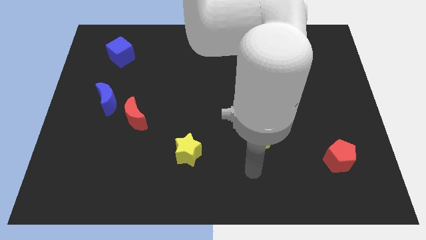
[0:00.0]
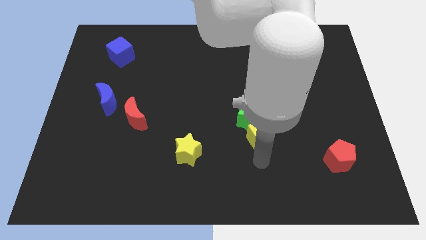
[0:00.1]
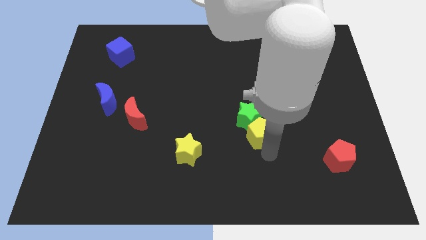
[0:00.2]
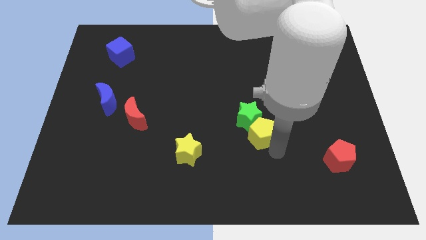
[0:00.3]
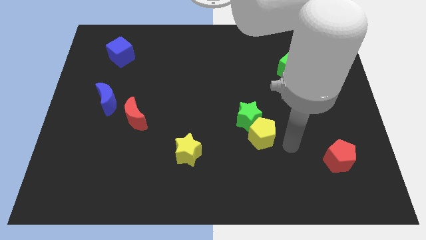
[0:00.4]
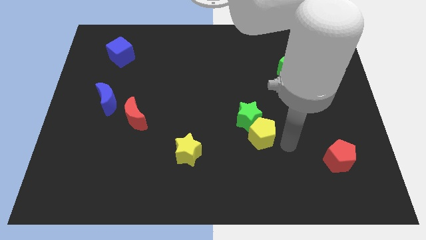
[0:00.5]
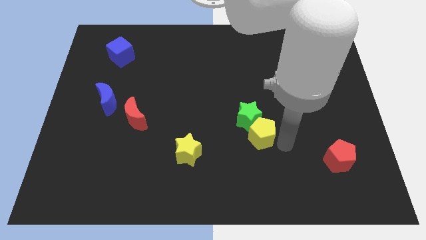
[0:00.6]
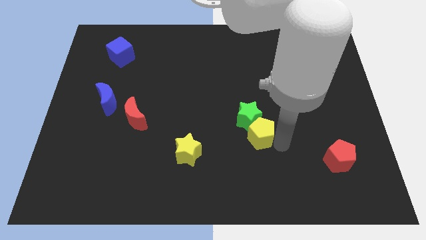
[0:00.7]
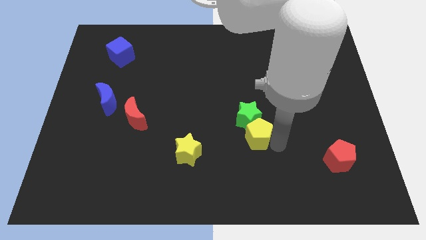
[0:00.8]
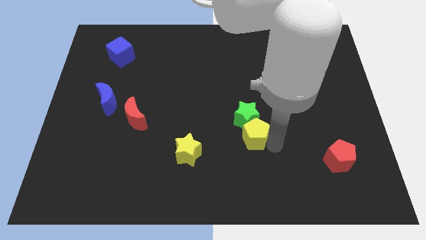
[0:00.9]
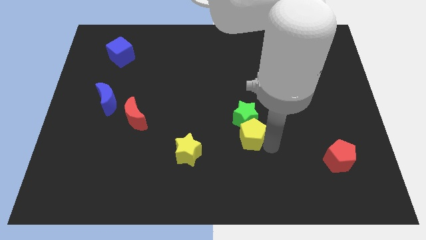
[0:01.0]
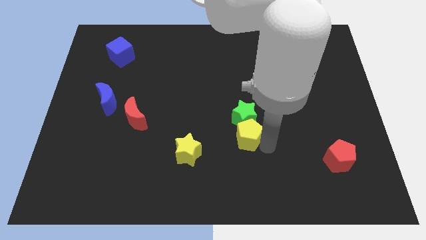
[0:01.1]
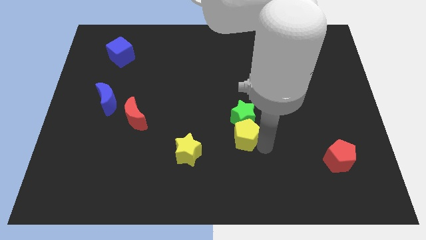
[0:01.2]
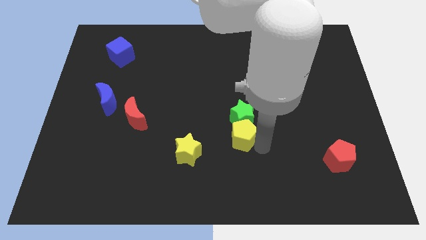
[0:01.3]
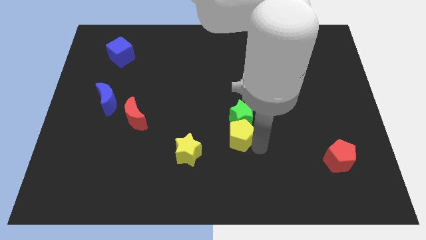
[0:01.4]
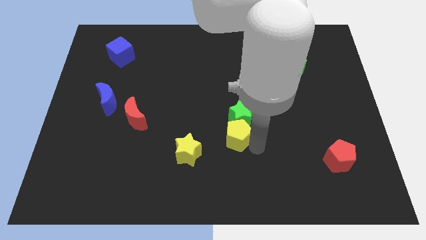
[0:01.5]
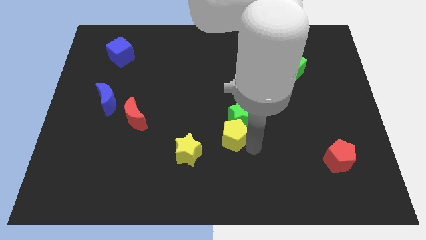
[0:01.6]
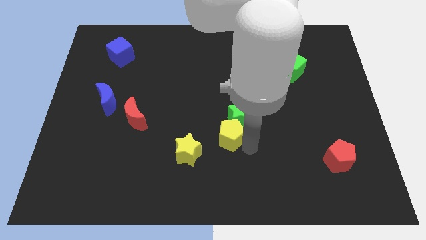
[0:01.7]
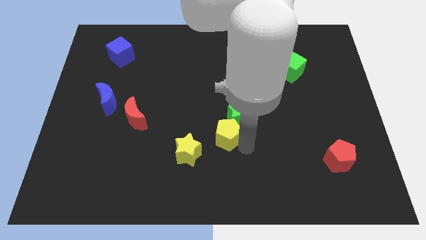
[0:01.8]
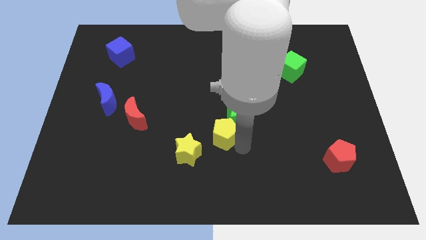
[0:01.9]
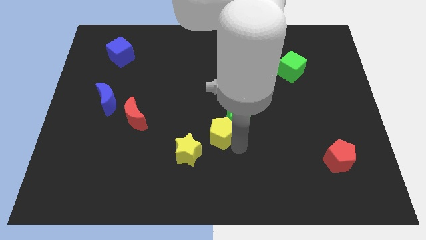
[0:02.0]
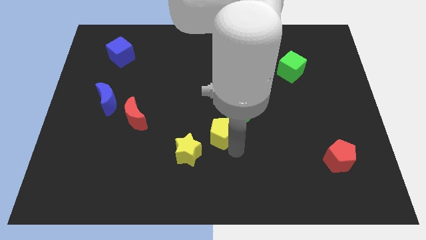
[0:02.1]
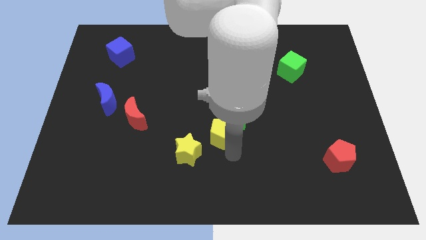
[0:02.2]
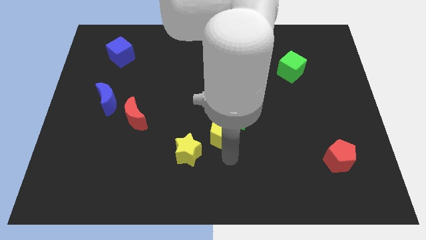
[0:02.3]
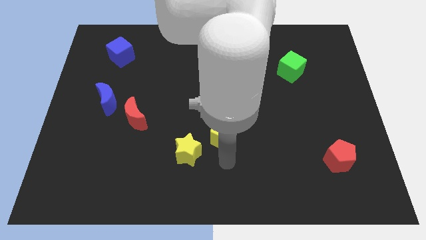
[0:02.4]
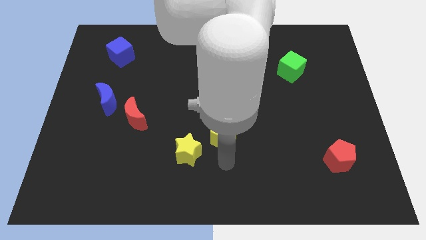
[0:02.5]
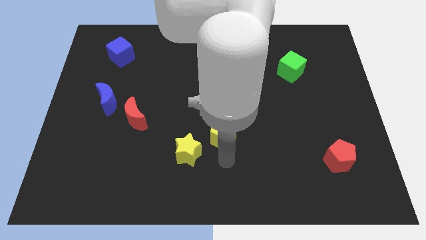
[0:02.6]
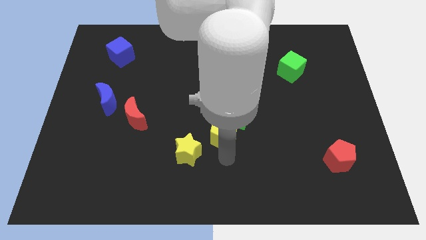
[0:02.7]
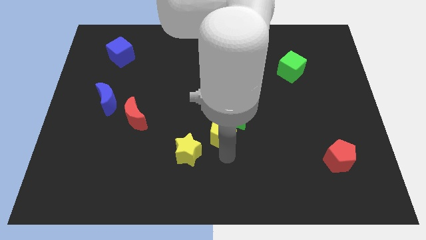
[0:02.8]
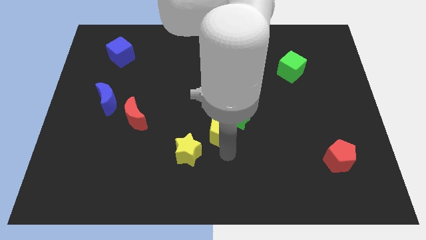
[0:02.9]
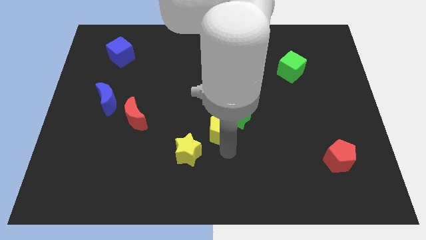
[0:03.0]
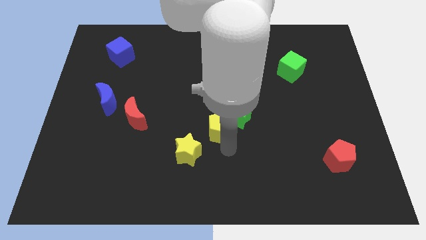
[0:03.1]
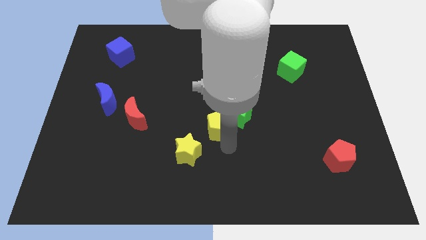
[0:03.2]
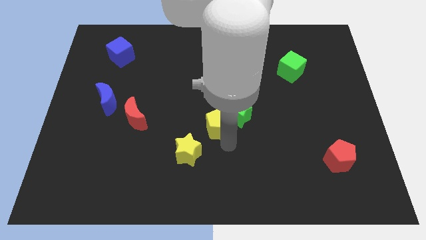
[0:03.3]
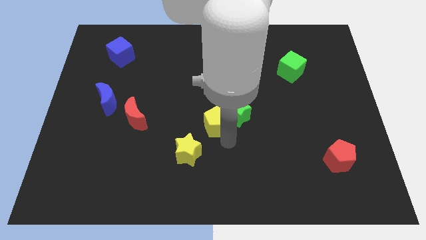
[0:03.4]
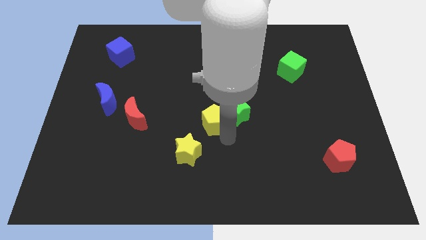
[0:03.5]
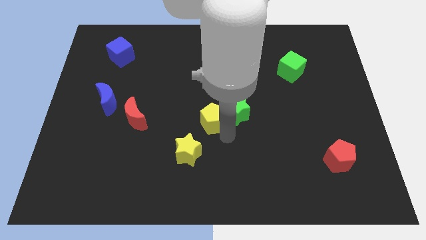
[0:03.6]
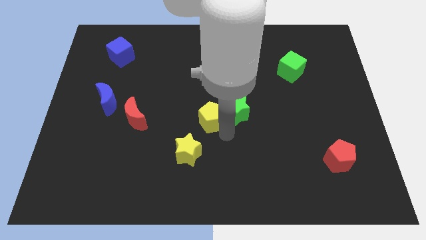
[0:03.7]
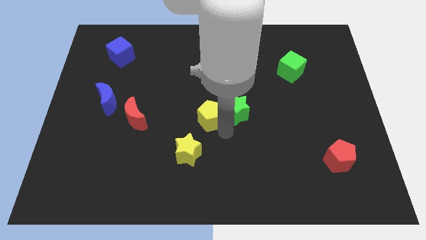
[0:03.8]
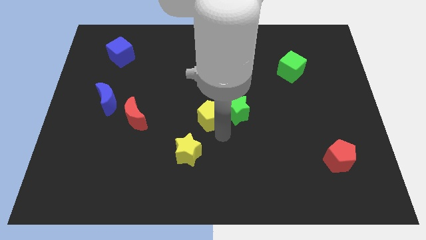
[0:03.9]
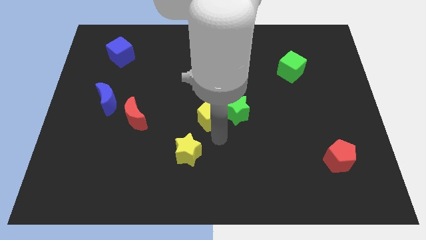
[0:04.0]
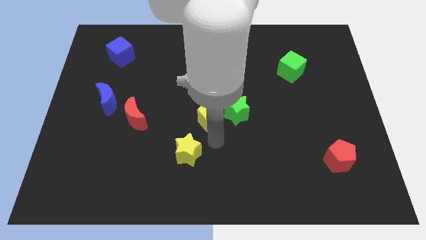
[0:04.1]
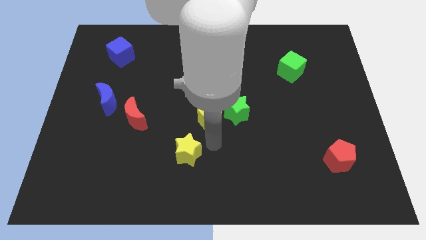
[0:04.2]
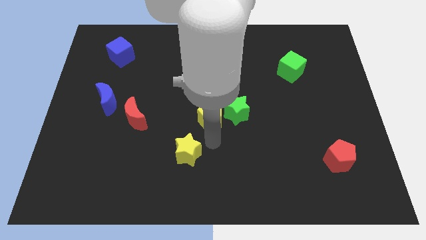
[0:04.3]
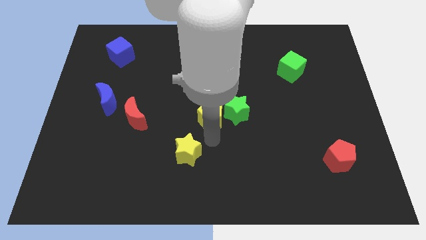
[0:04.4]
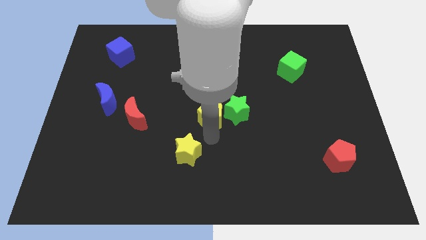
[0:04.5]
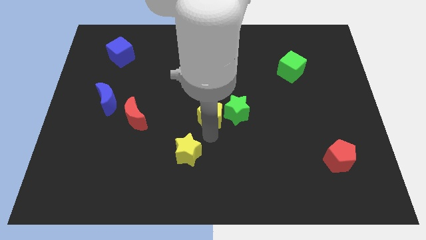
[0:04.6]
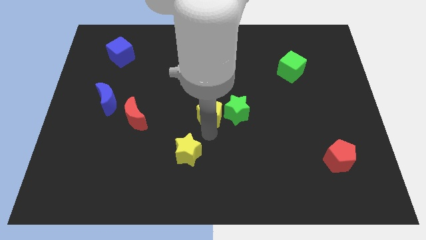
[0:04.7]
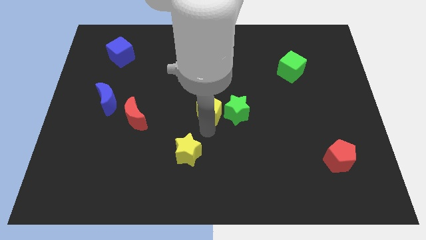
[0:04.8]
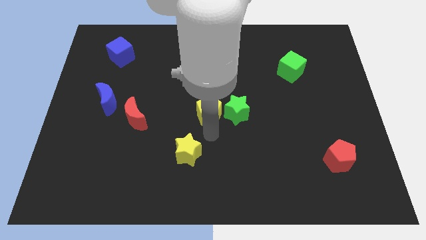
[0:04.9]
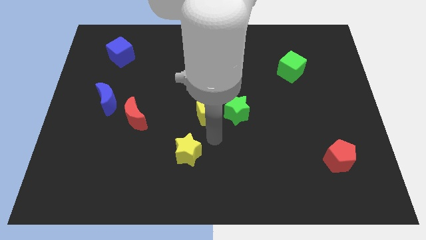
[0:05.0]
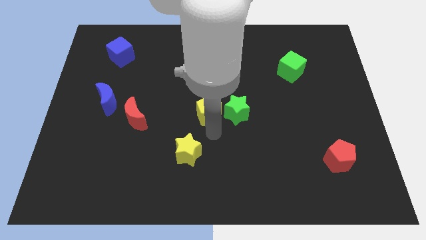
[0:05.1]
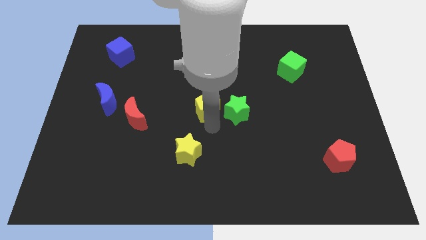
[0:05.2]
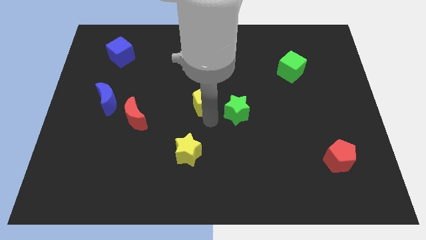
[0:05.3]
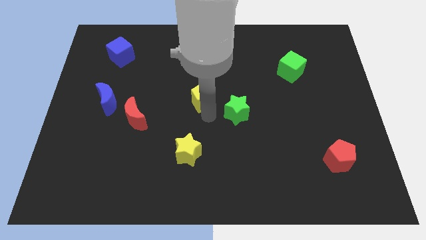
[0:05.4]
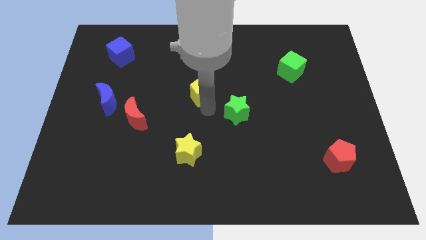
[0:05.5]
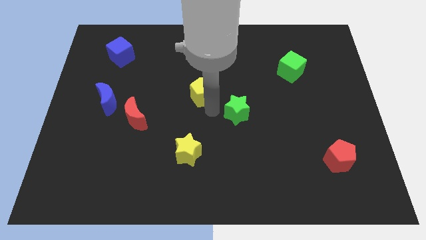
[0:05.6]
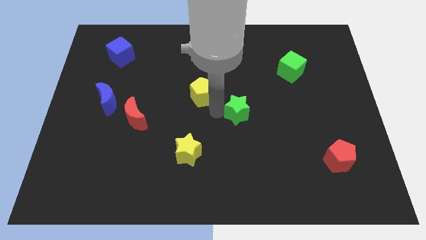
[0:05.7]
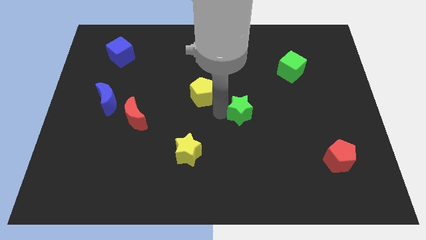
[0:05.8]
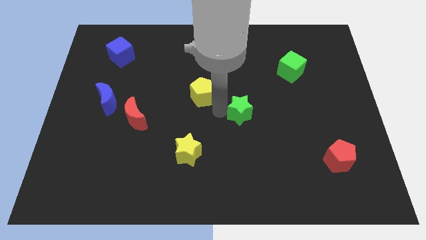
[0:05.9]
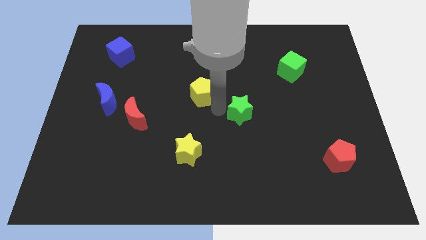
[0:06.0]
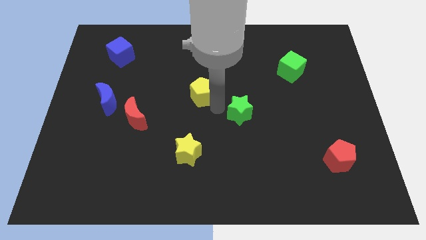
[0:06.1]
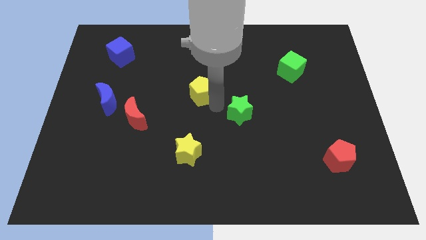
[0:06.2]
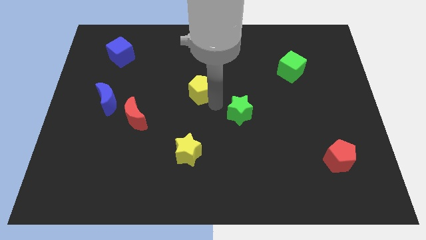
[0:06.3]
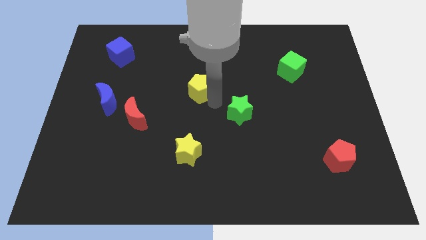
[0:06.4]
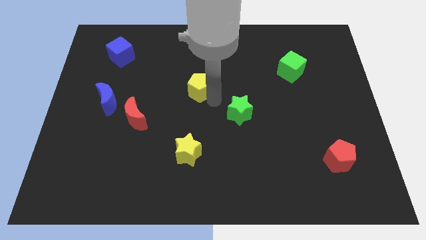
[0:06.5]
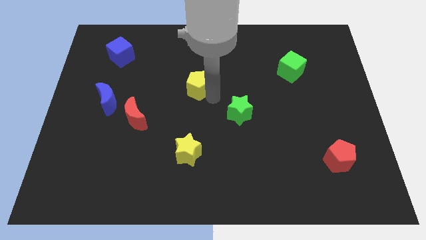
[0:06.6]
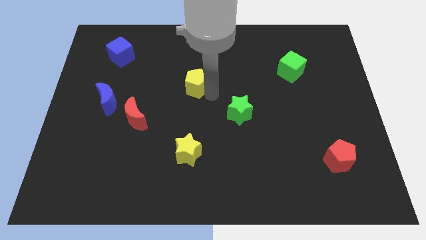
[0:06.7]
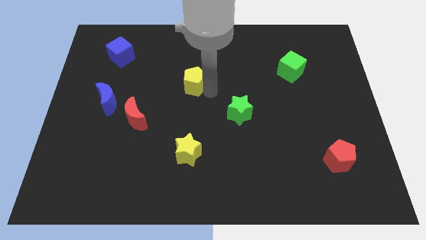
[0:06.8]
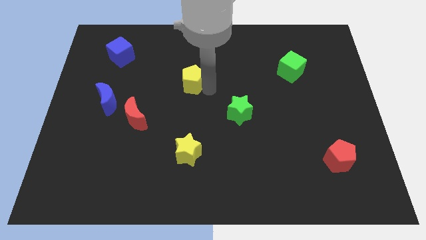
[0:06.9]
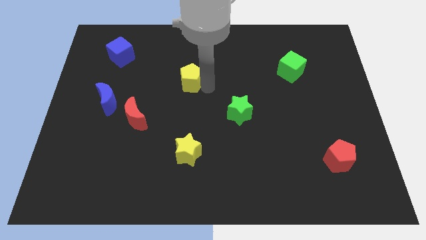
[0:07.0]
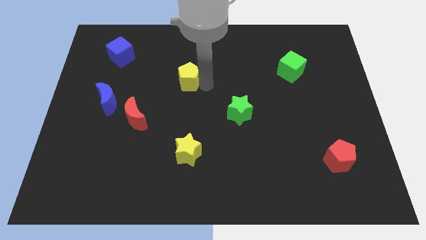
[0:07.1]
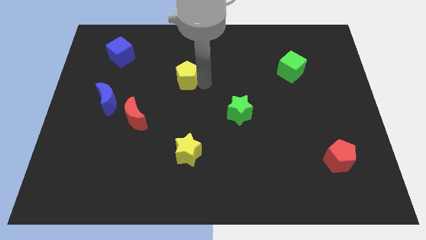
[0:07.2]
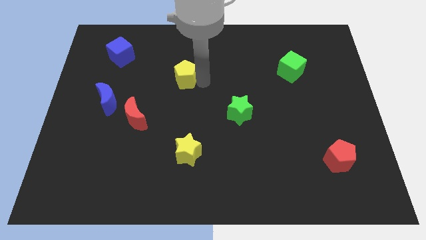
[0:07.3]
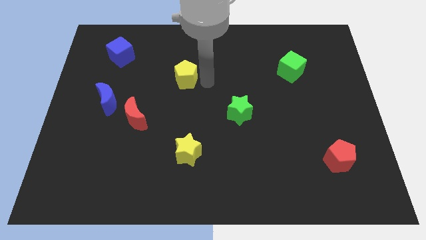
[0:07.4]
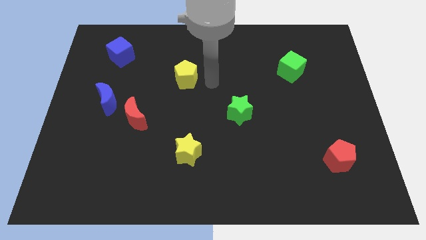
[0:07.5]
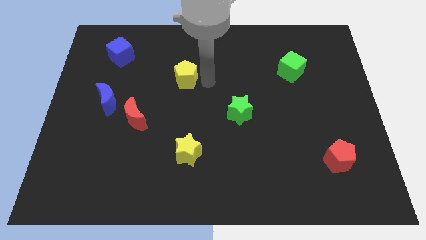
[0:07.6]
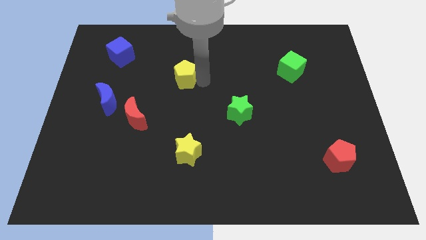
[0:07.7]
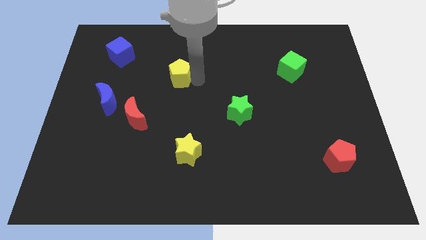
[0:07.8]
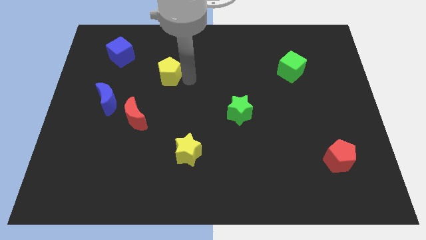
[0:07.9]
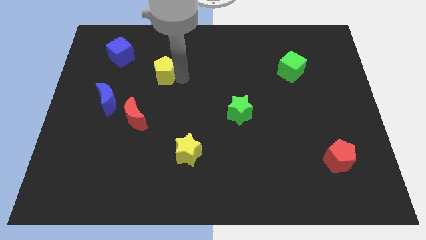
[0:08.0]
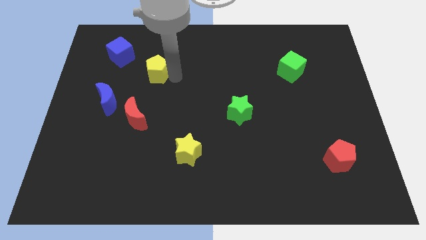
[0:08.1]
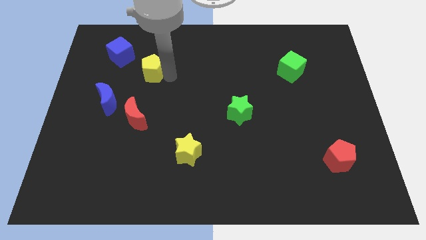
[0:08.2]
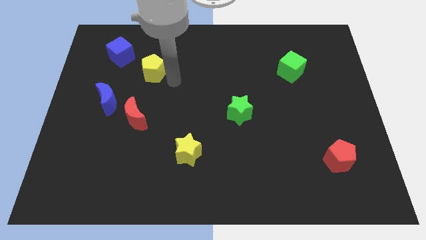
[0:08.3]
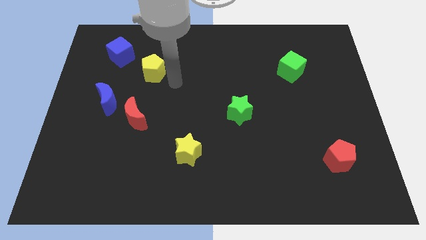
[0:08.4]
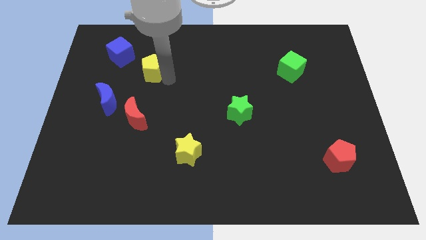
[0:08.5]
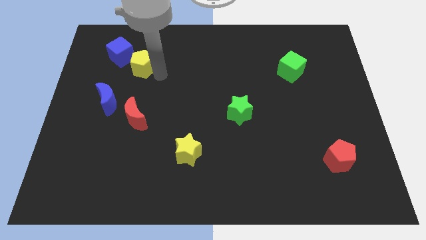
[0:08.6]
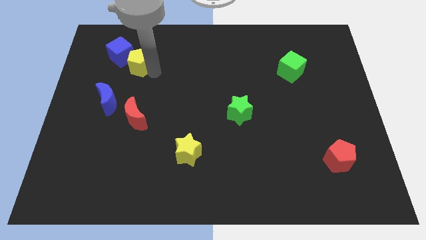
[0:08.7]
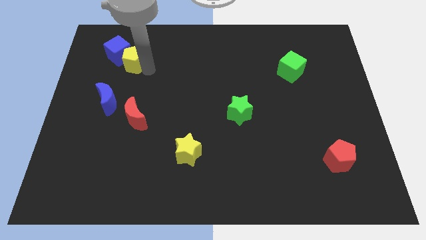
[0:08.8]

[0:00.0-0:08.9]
put the yellow pentagon towards the blue cube
